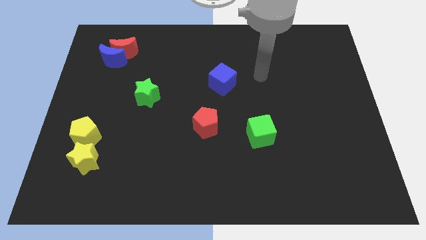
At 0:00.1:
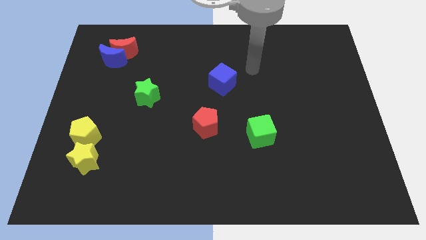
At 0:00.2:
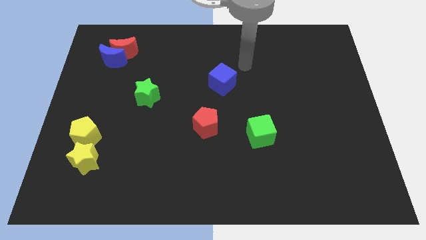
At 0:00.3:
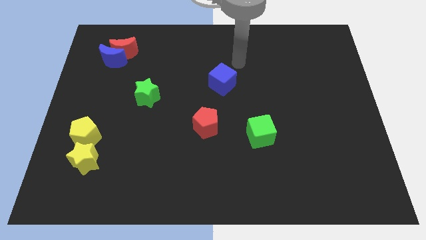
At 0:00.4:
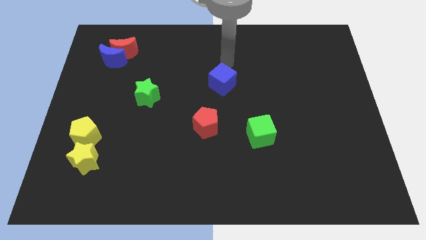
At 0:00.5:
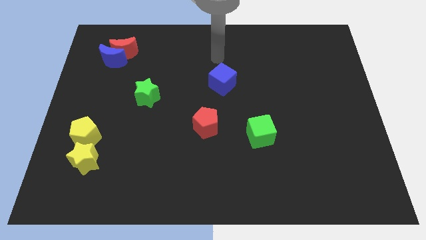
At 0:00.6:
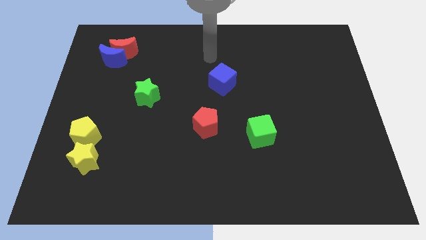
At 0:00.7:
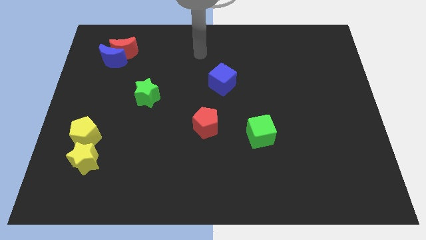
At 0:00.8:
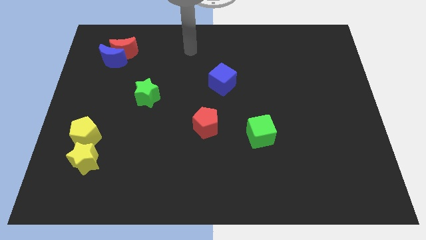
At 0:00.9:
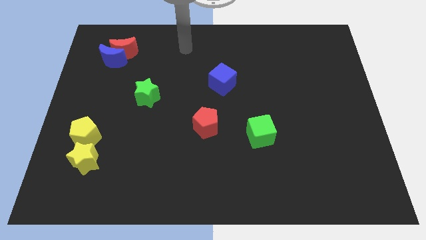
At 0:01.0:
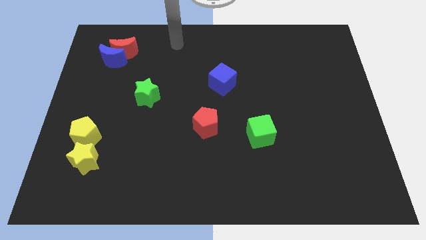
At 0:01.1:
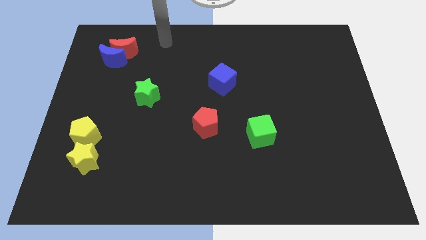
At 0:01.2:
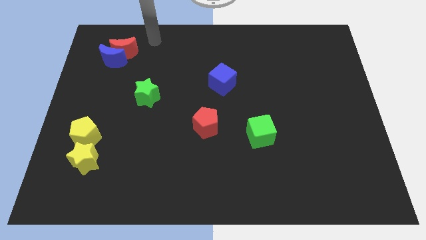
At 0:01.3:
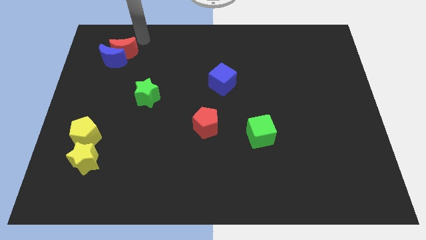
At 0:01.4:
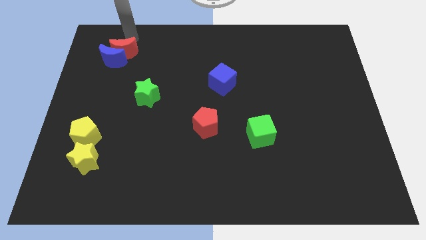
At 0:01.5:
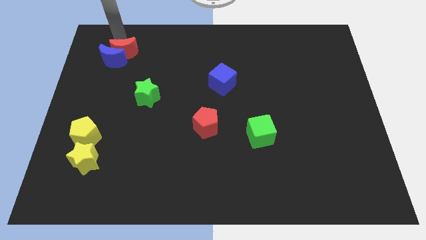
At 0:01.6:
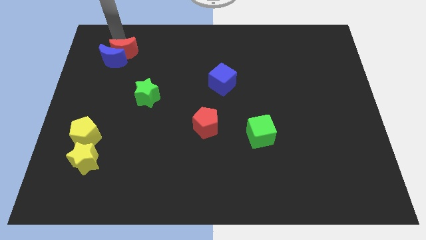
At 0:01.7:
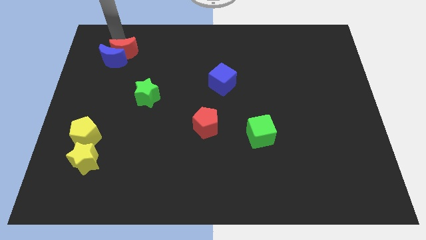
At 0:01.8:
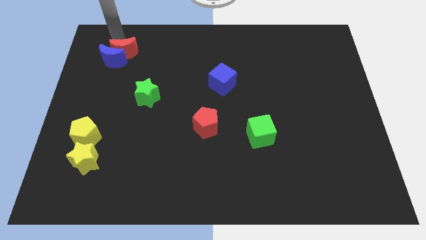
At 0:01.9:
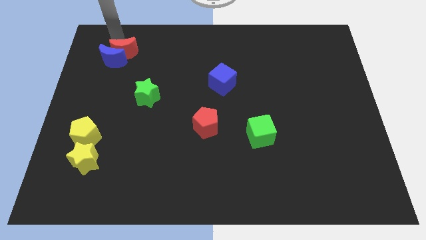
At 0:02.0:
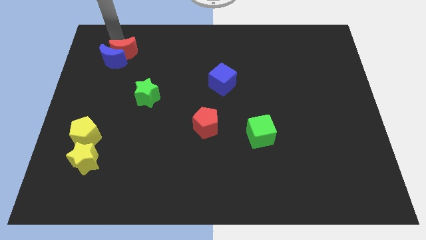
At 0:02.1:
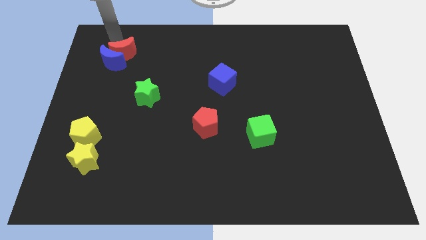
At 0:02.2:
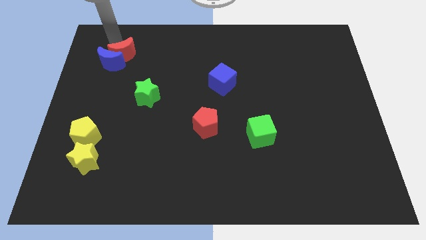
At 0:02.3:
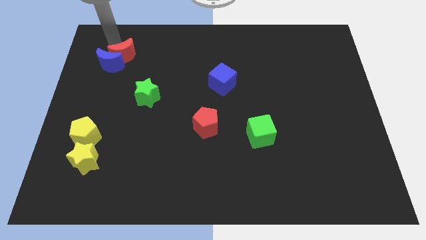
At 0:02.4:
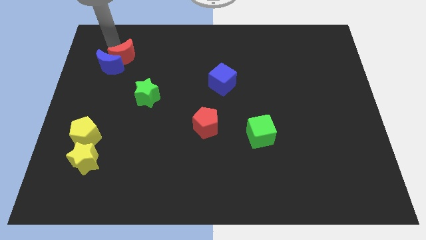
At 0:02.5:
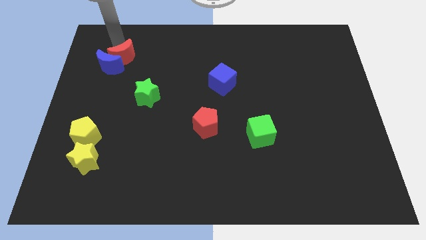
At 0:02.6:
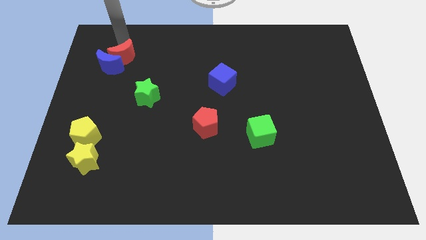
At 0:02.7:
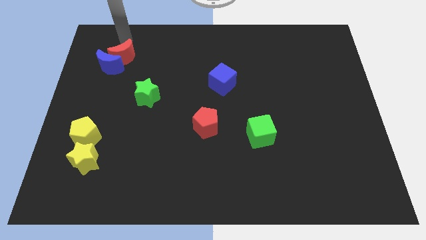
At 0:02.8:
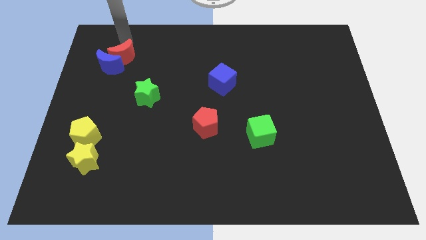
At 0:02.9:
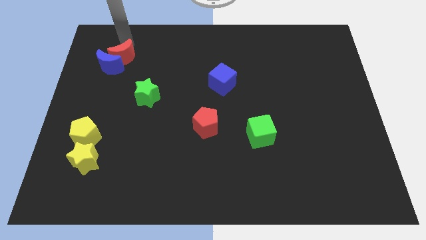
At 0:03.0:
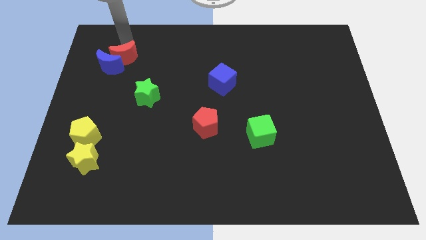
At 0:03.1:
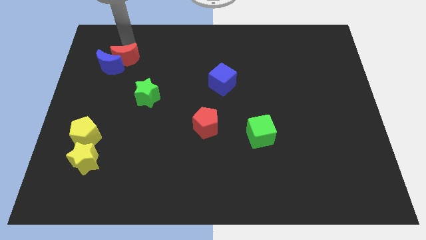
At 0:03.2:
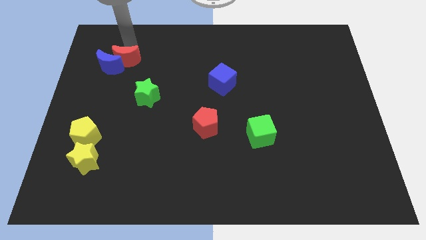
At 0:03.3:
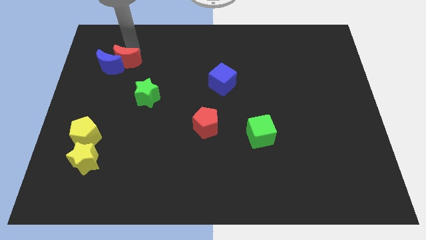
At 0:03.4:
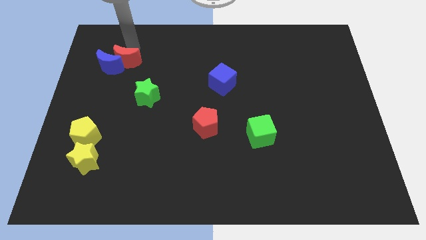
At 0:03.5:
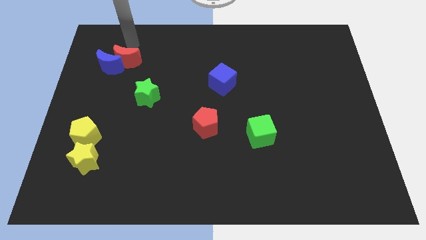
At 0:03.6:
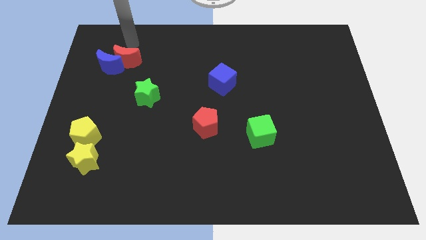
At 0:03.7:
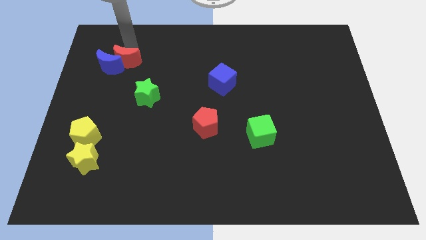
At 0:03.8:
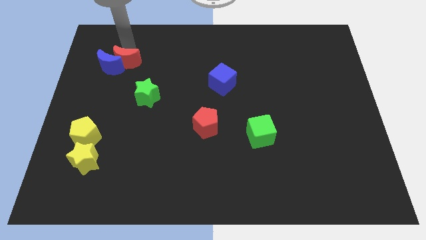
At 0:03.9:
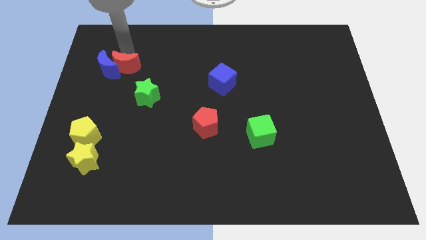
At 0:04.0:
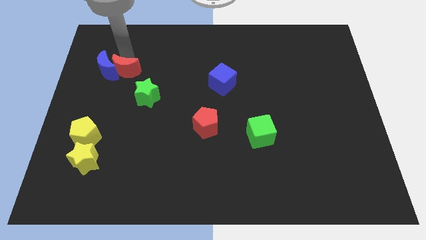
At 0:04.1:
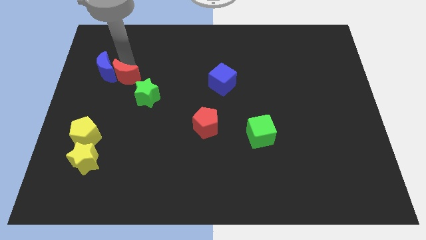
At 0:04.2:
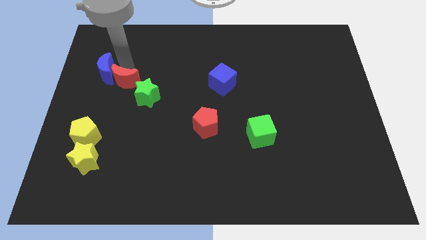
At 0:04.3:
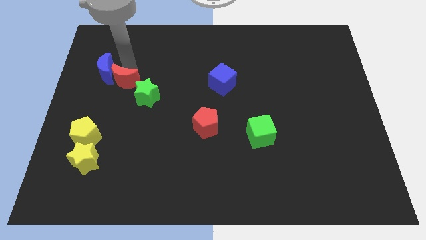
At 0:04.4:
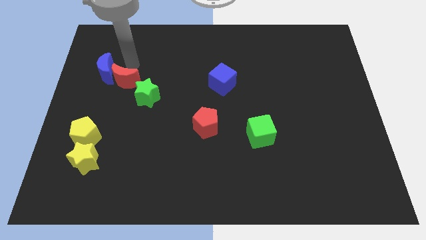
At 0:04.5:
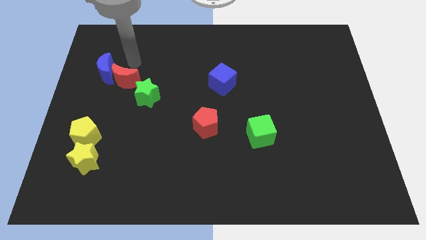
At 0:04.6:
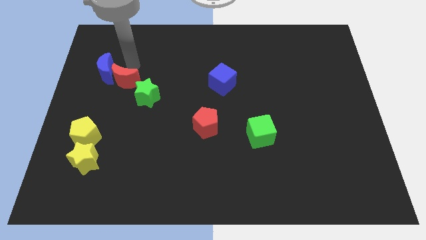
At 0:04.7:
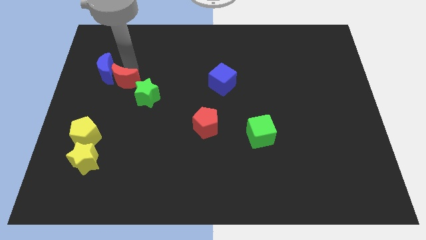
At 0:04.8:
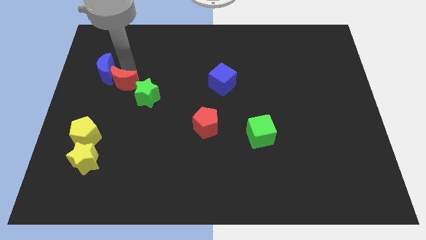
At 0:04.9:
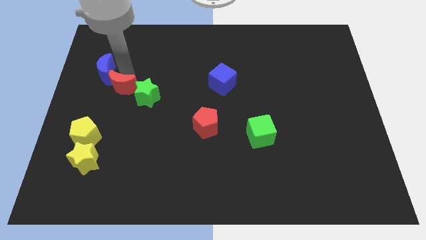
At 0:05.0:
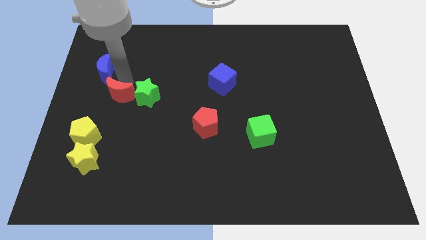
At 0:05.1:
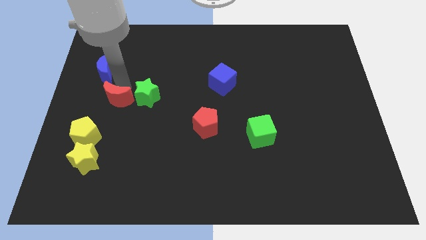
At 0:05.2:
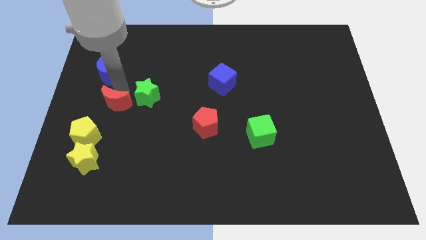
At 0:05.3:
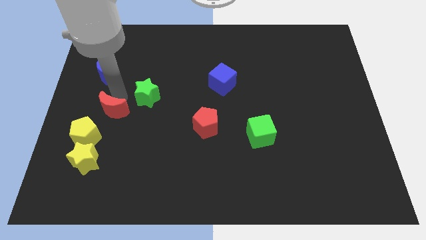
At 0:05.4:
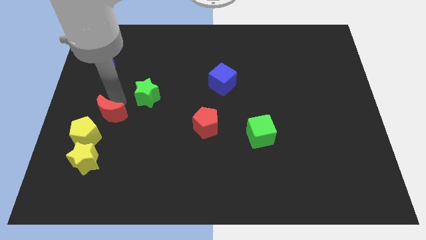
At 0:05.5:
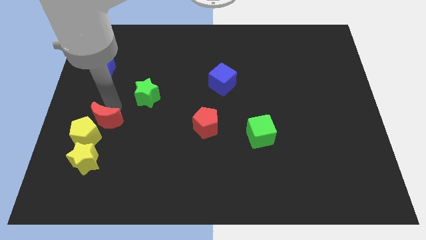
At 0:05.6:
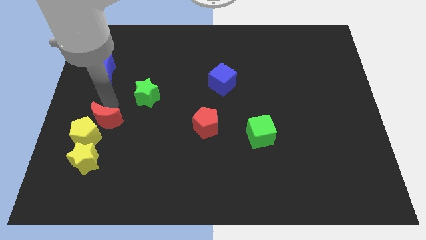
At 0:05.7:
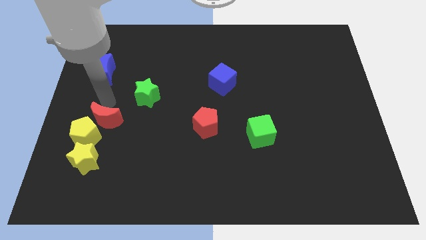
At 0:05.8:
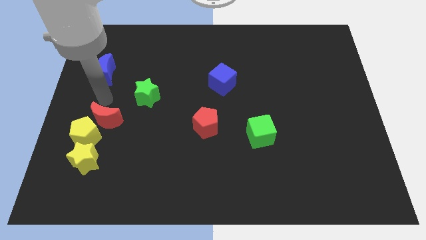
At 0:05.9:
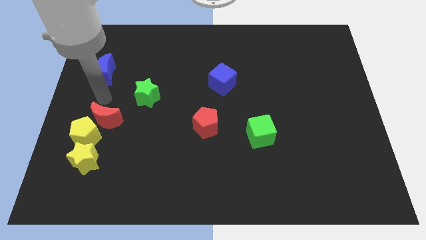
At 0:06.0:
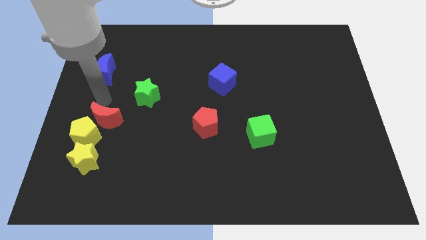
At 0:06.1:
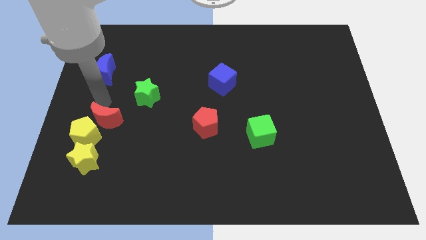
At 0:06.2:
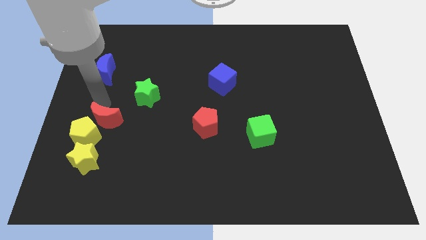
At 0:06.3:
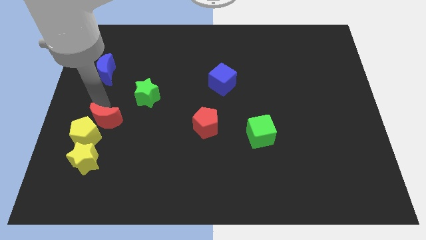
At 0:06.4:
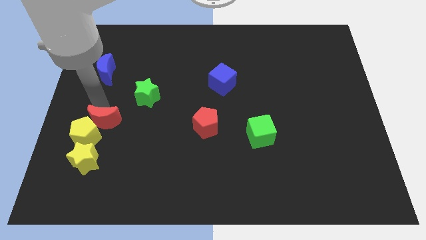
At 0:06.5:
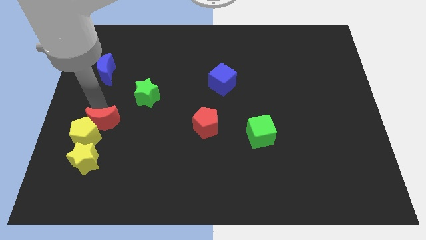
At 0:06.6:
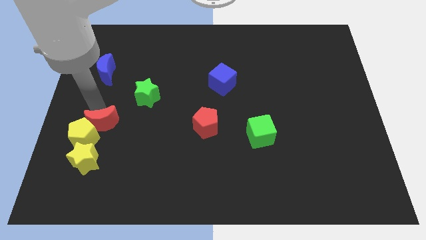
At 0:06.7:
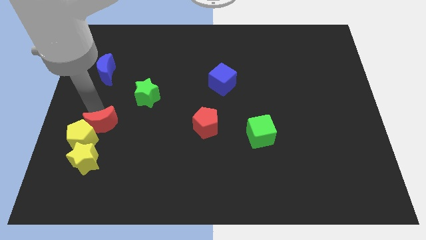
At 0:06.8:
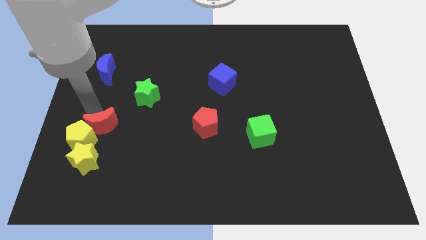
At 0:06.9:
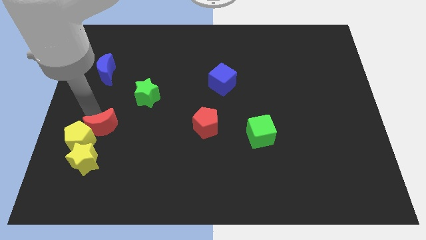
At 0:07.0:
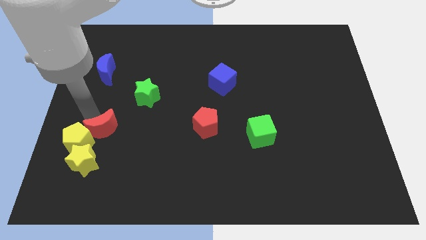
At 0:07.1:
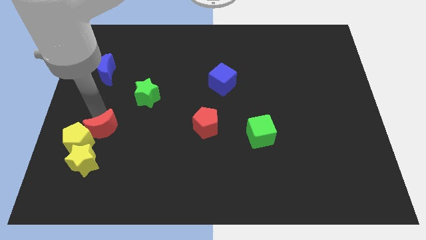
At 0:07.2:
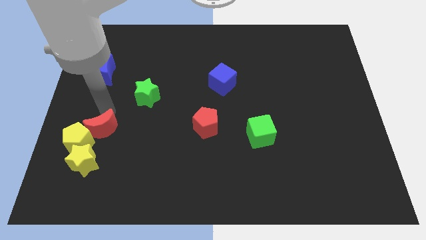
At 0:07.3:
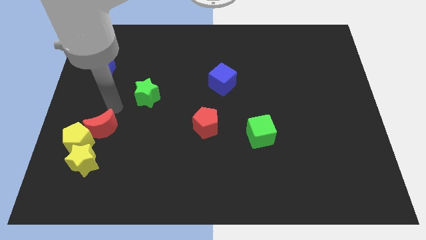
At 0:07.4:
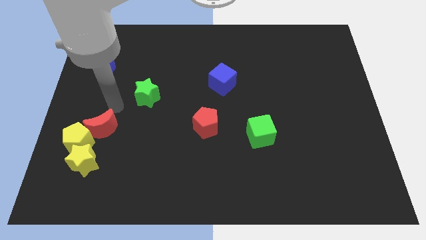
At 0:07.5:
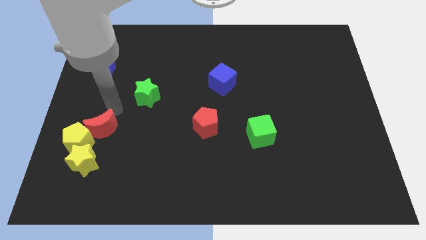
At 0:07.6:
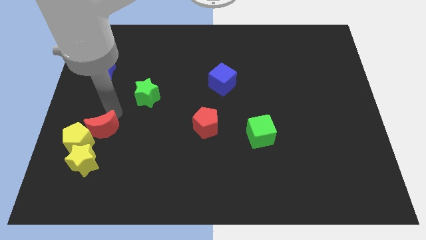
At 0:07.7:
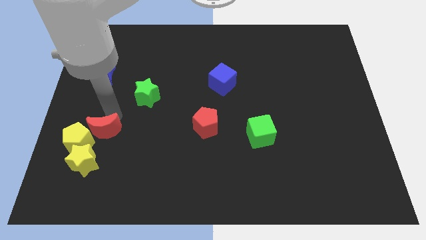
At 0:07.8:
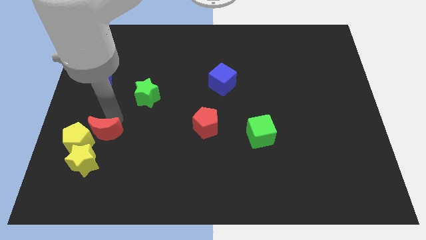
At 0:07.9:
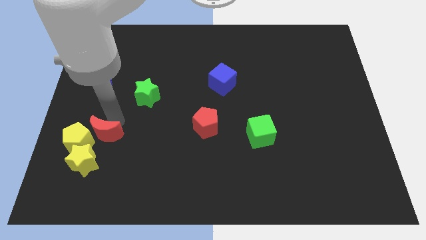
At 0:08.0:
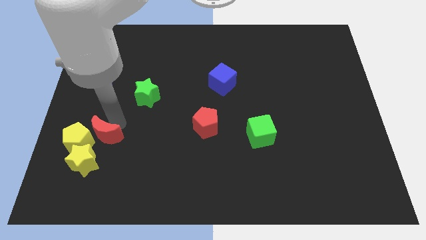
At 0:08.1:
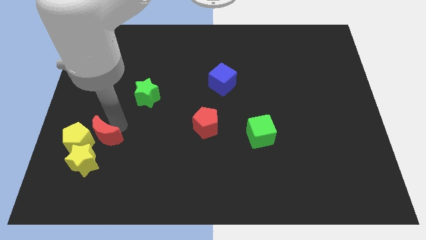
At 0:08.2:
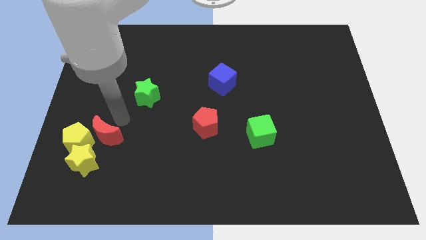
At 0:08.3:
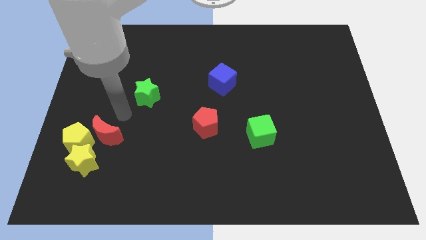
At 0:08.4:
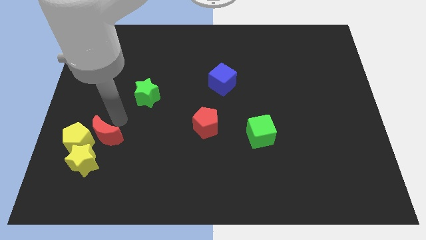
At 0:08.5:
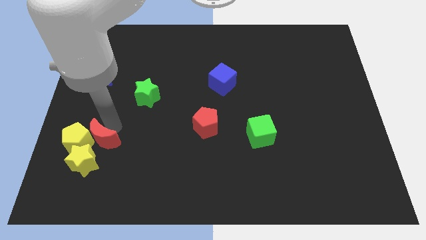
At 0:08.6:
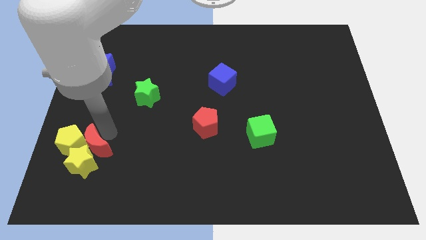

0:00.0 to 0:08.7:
move the red moon next to the yellow star
